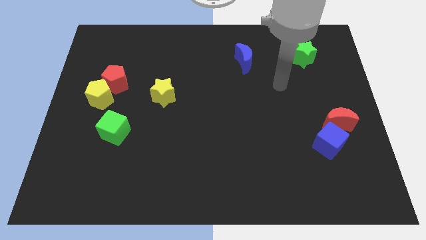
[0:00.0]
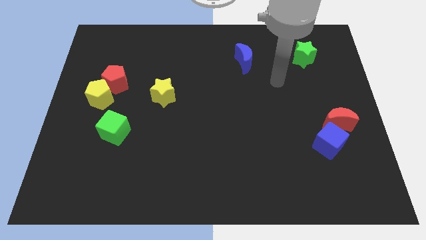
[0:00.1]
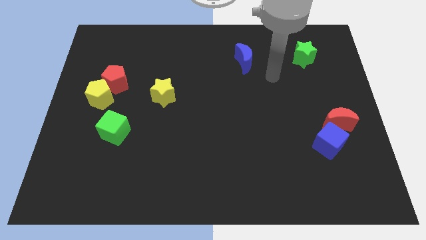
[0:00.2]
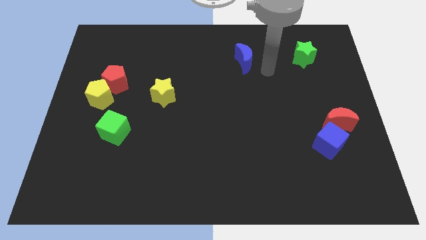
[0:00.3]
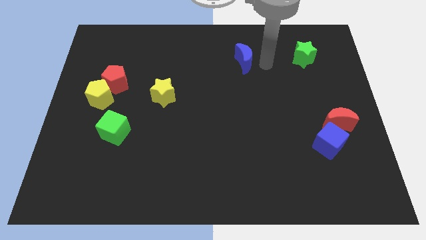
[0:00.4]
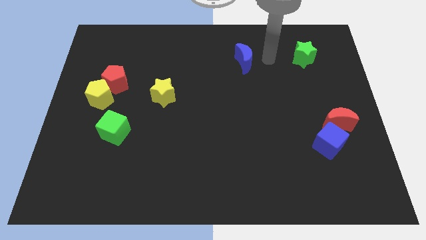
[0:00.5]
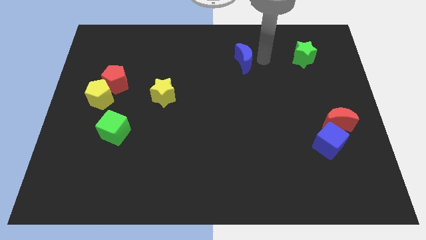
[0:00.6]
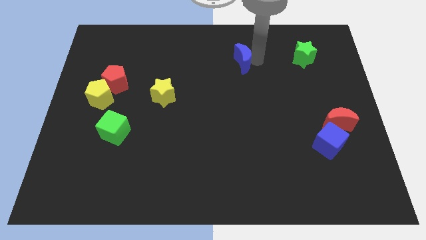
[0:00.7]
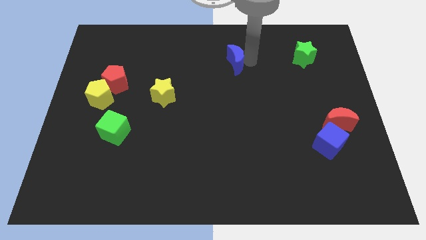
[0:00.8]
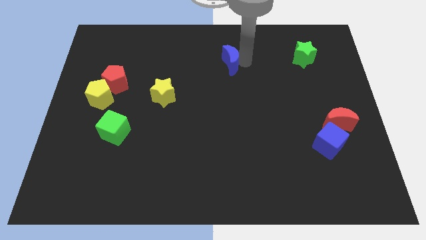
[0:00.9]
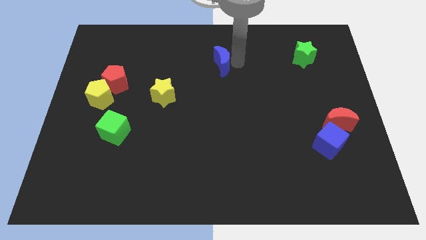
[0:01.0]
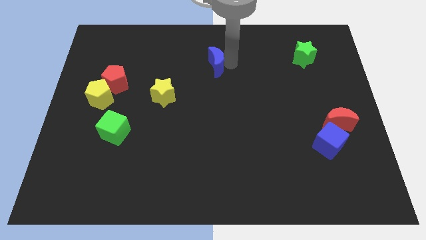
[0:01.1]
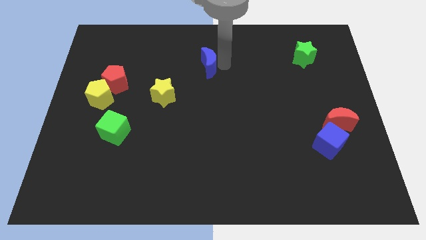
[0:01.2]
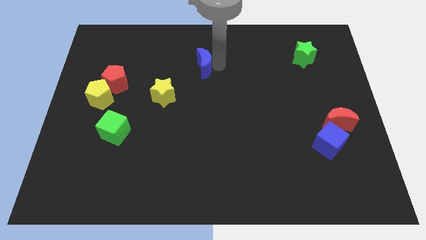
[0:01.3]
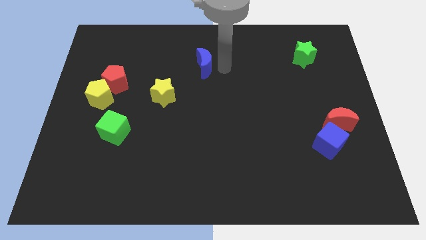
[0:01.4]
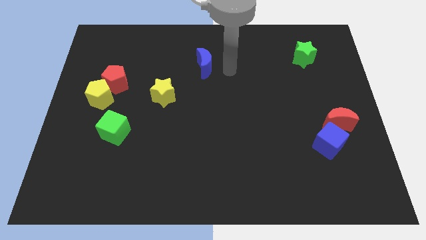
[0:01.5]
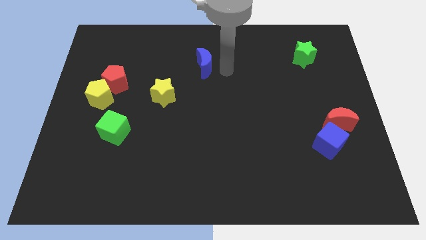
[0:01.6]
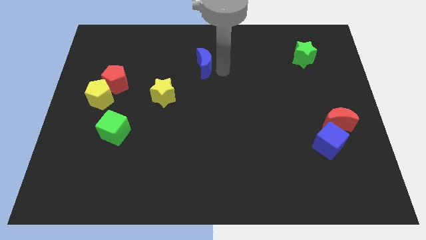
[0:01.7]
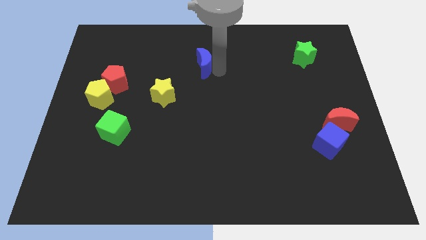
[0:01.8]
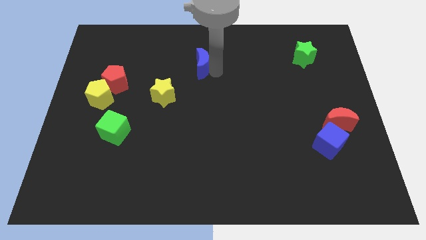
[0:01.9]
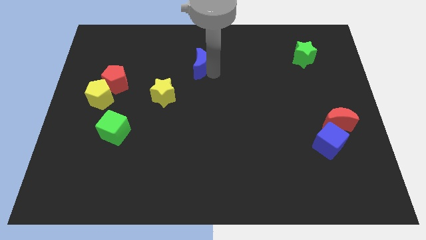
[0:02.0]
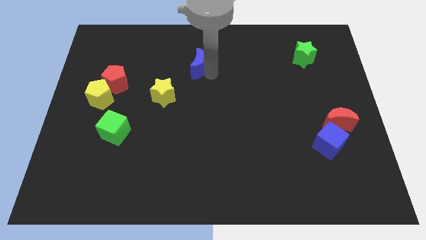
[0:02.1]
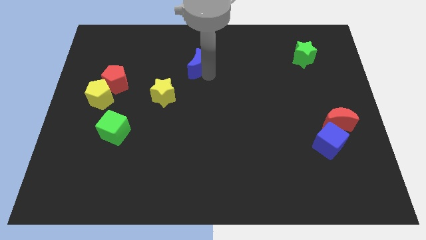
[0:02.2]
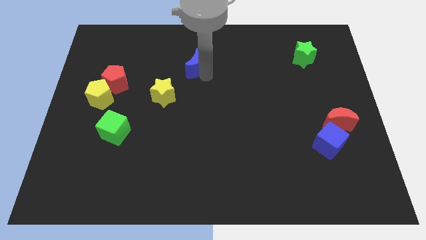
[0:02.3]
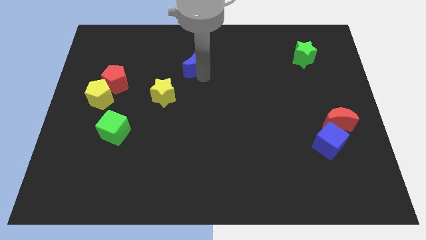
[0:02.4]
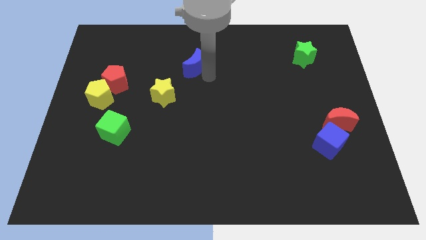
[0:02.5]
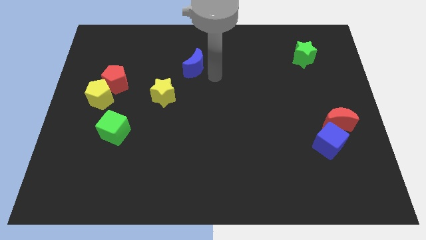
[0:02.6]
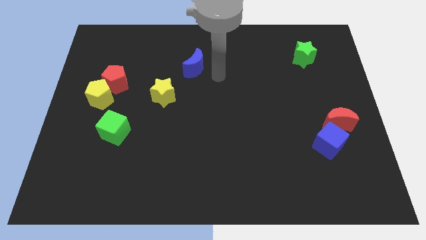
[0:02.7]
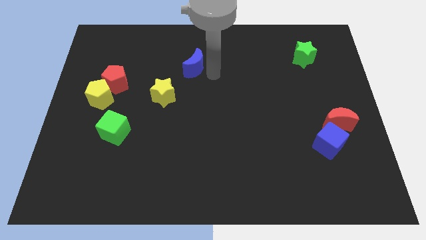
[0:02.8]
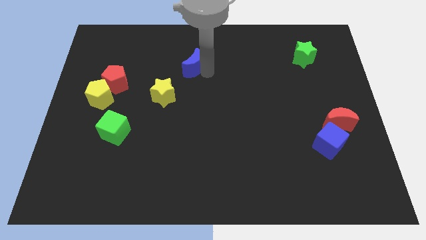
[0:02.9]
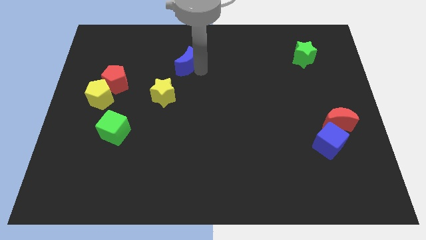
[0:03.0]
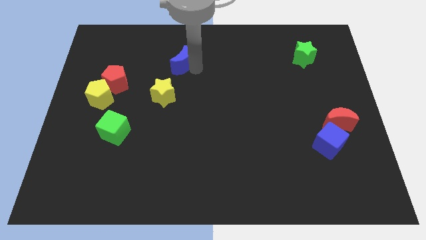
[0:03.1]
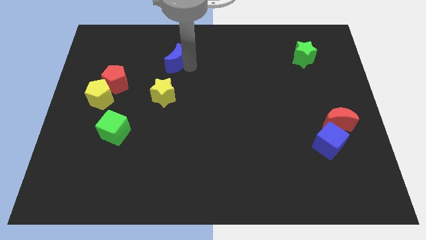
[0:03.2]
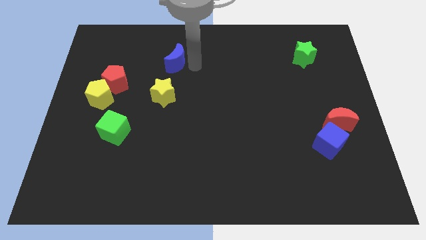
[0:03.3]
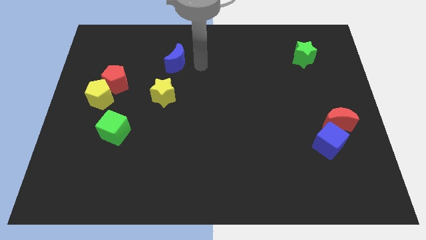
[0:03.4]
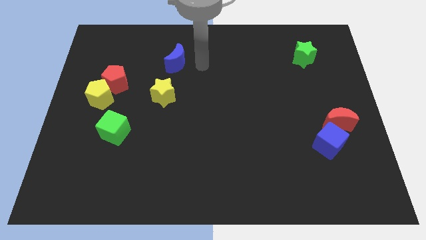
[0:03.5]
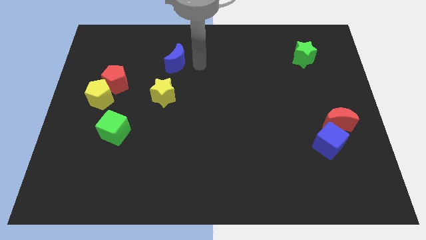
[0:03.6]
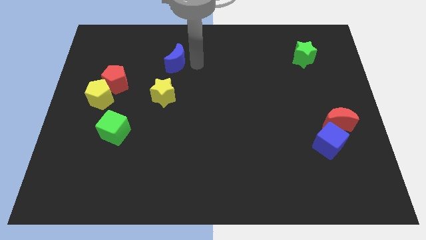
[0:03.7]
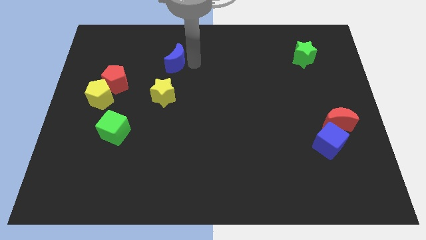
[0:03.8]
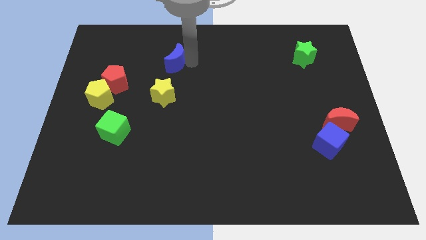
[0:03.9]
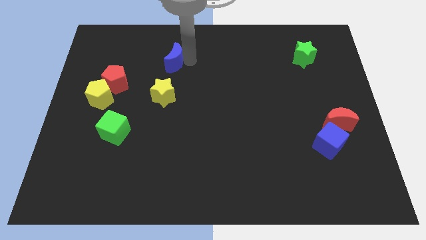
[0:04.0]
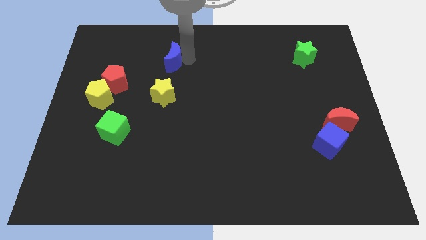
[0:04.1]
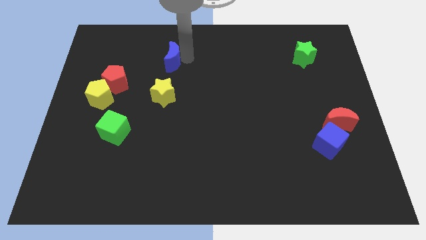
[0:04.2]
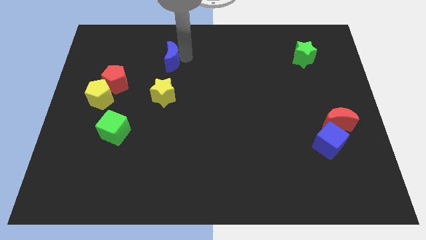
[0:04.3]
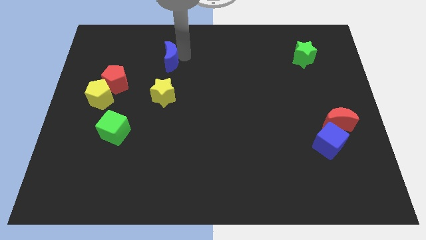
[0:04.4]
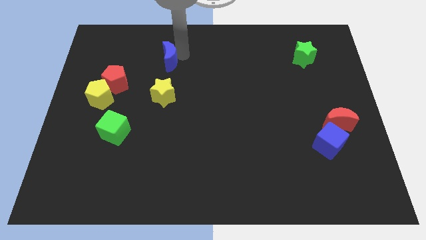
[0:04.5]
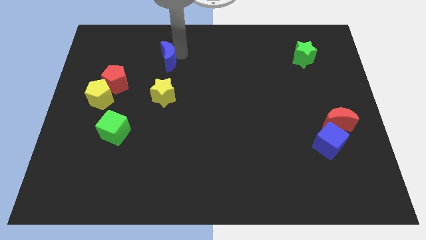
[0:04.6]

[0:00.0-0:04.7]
slide the blue moon to the left

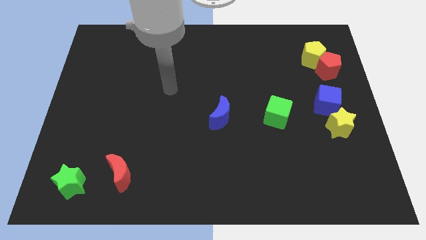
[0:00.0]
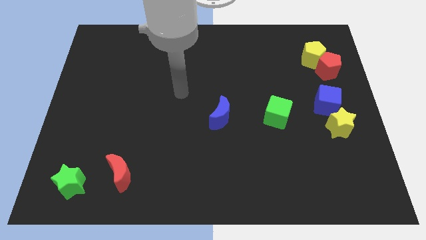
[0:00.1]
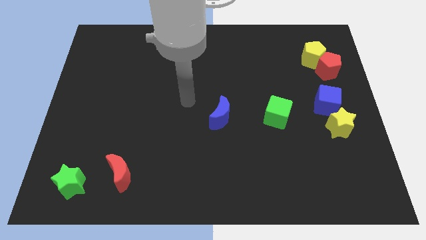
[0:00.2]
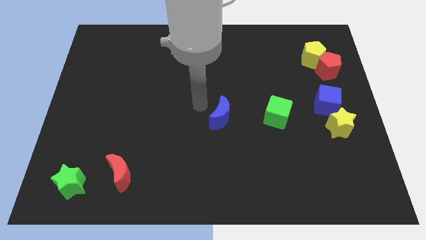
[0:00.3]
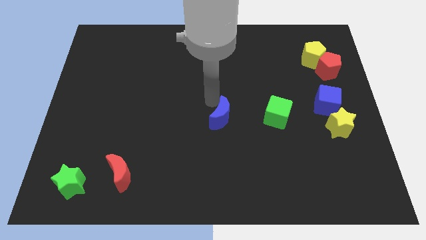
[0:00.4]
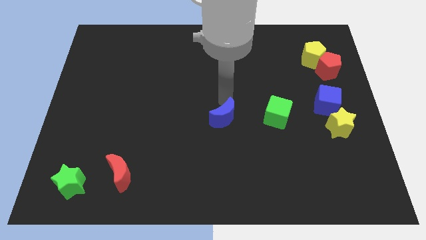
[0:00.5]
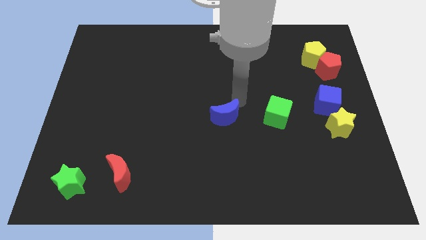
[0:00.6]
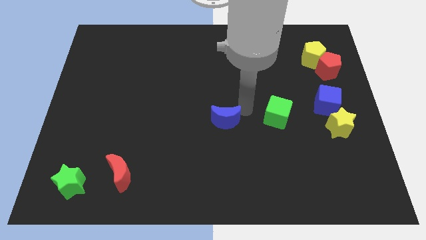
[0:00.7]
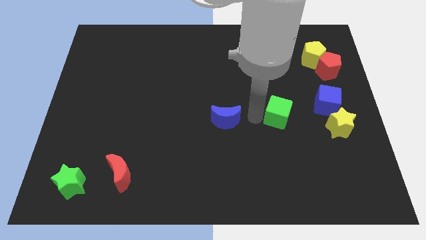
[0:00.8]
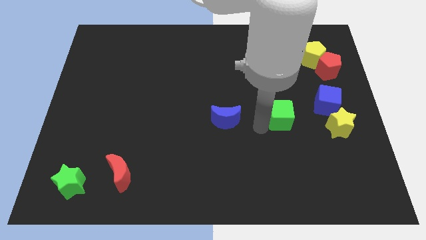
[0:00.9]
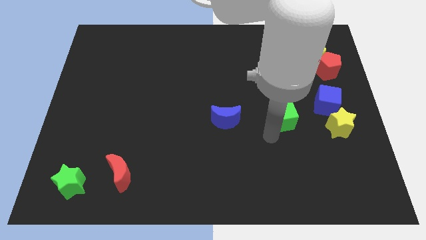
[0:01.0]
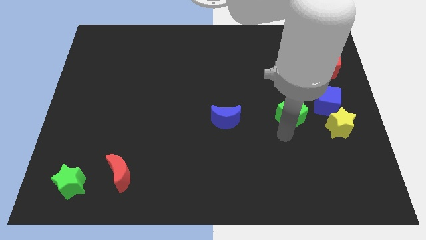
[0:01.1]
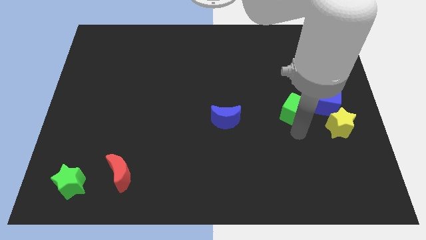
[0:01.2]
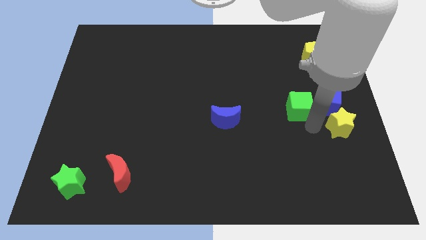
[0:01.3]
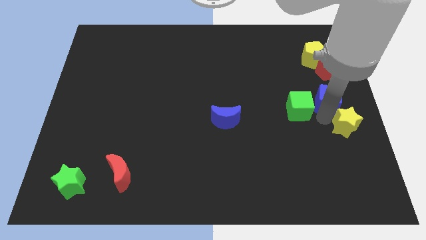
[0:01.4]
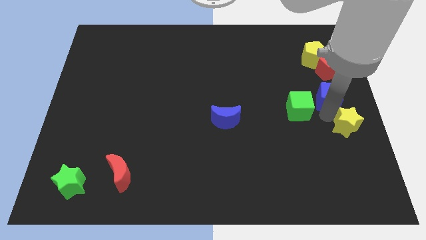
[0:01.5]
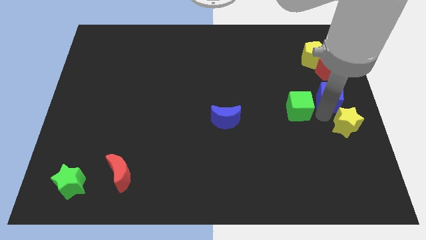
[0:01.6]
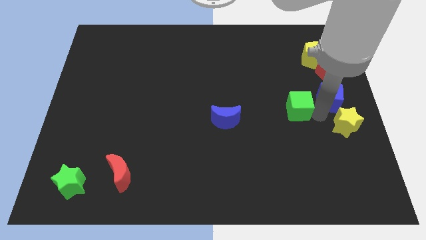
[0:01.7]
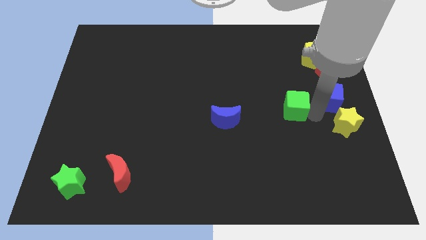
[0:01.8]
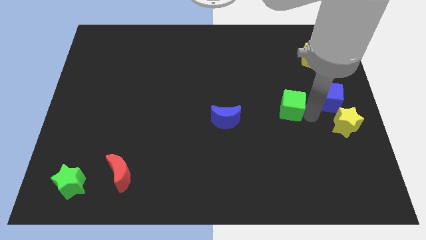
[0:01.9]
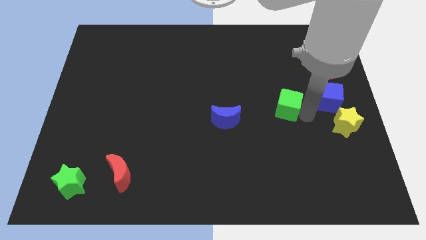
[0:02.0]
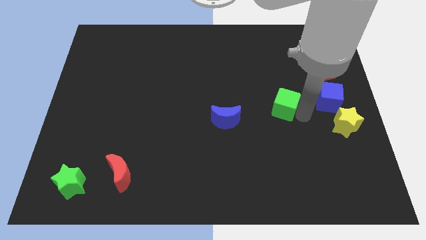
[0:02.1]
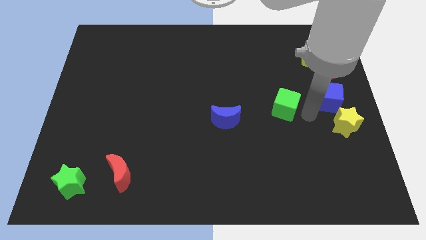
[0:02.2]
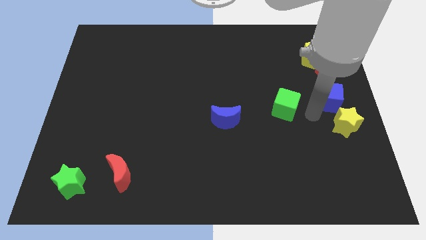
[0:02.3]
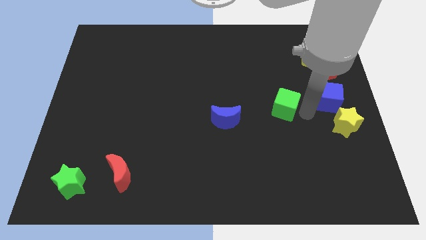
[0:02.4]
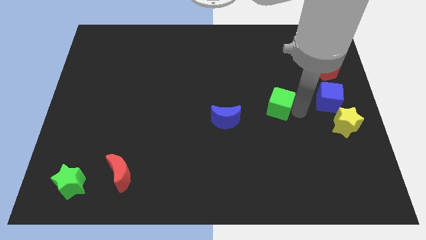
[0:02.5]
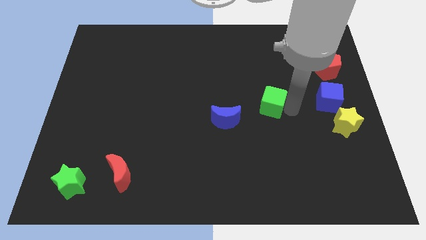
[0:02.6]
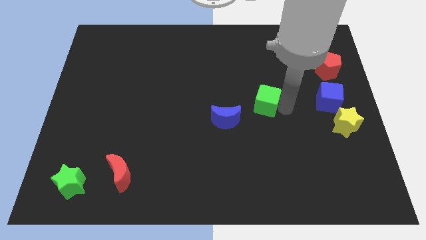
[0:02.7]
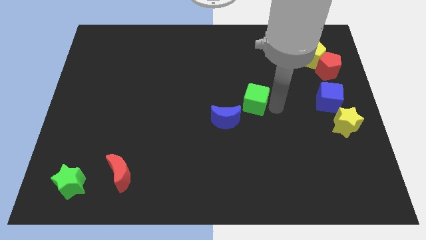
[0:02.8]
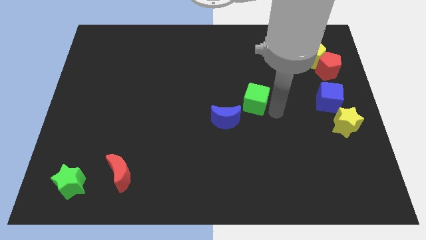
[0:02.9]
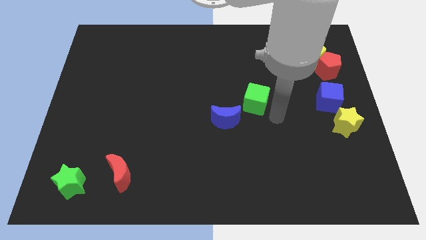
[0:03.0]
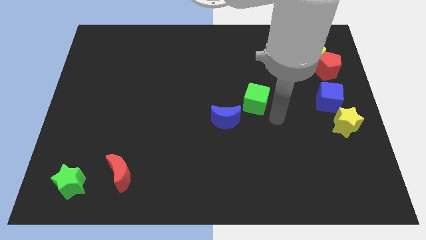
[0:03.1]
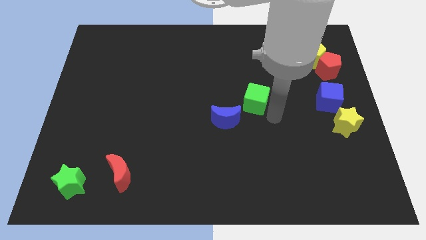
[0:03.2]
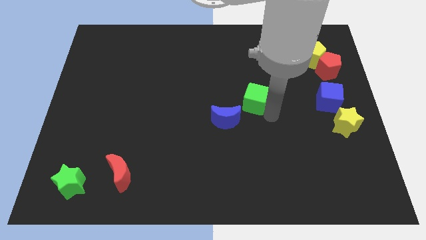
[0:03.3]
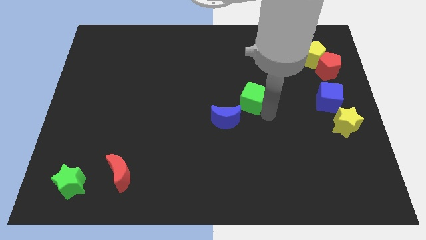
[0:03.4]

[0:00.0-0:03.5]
push the green cube a bit upwards and to the left
